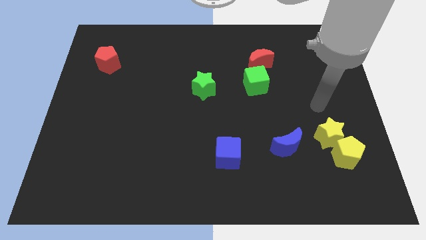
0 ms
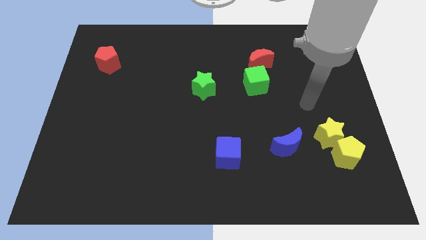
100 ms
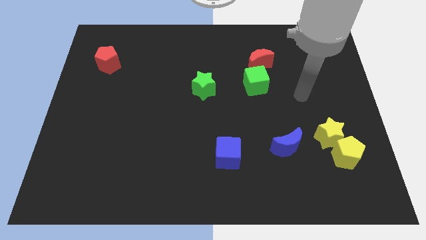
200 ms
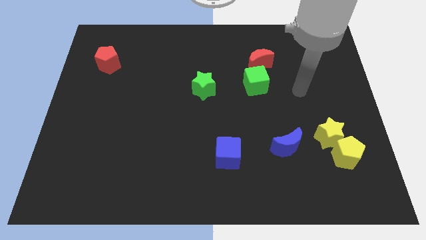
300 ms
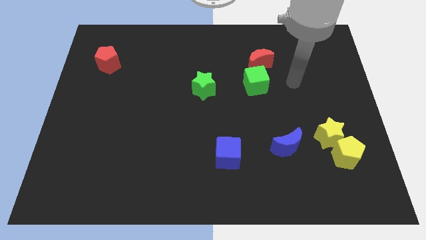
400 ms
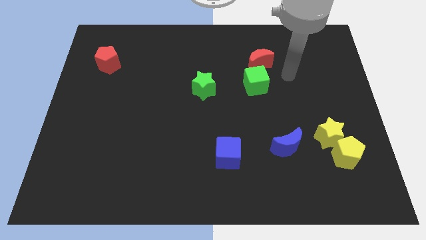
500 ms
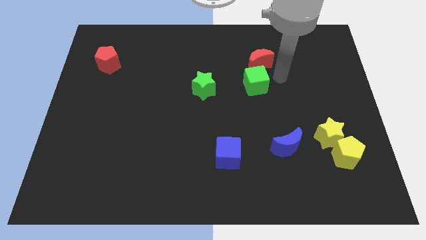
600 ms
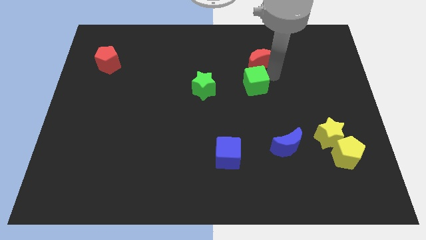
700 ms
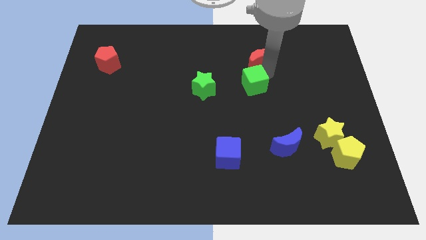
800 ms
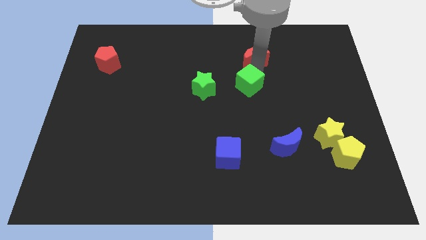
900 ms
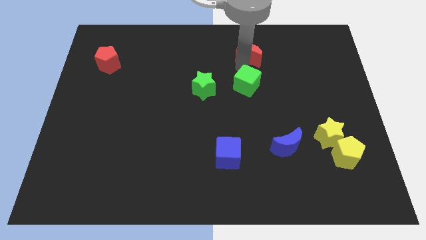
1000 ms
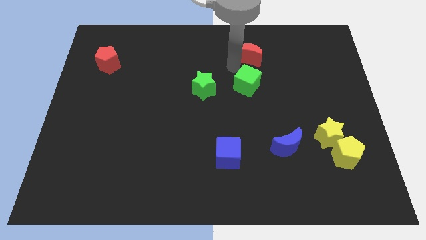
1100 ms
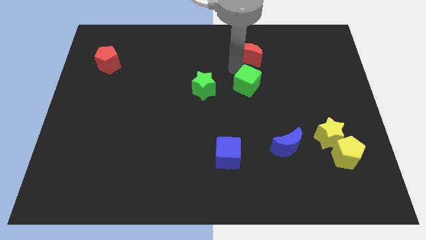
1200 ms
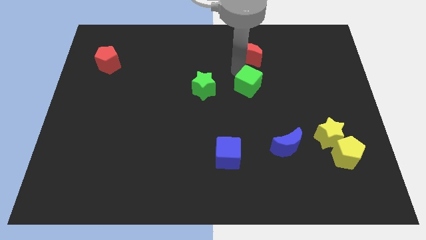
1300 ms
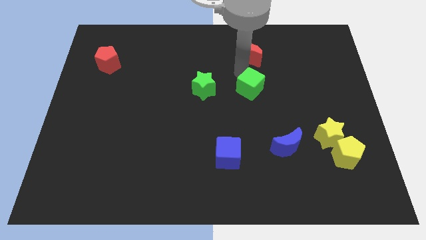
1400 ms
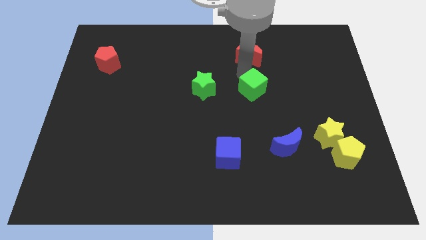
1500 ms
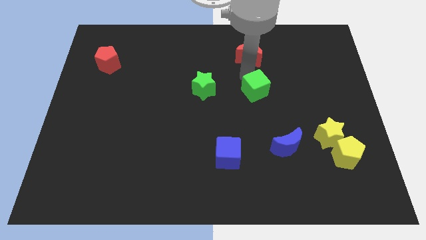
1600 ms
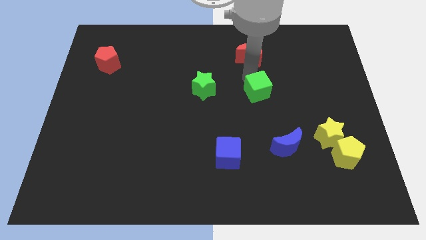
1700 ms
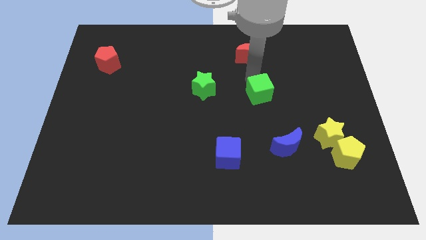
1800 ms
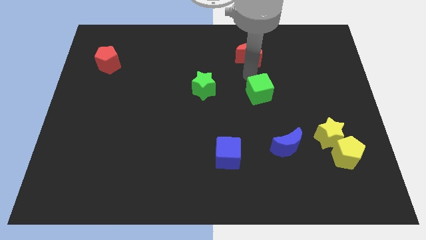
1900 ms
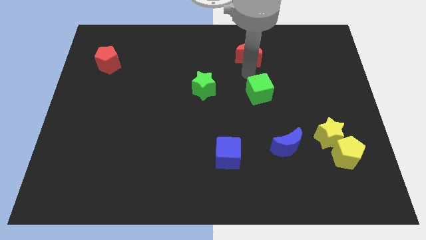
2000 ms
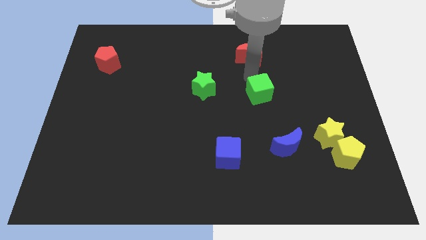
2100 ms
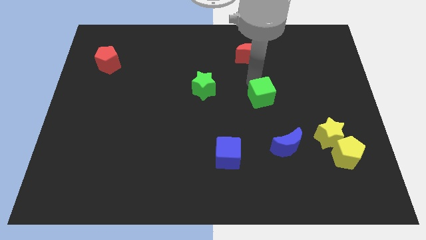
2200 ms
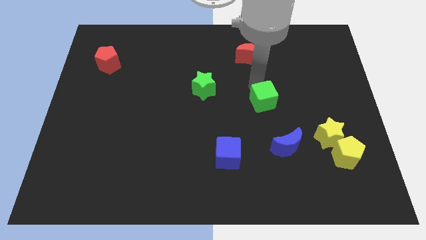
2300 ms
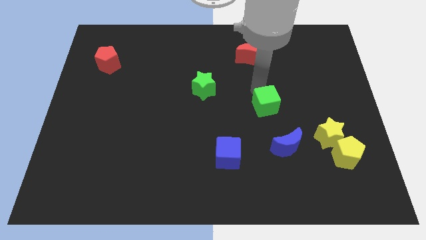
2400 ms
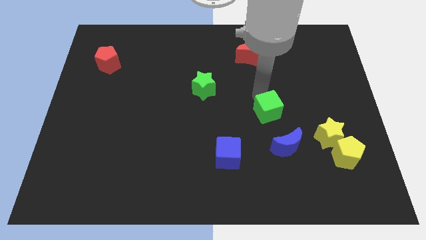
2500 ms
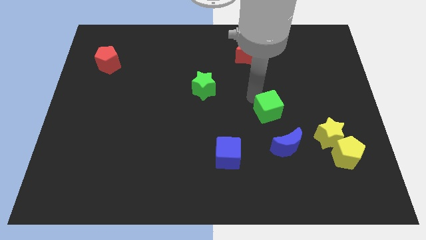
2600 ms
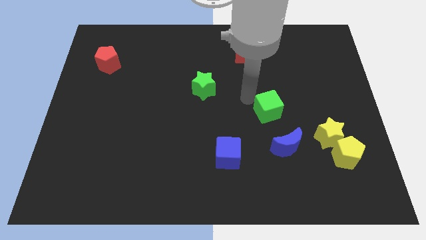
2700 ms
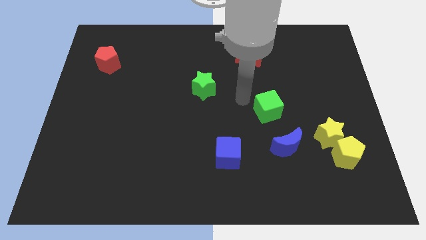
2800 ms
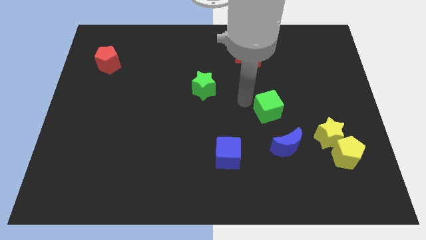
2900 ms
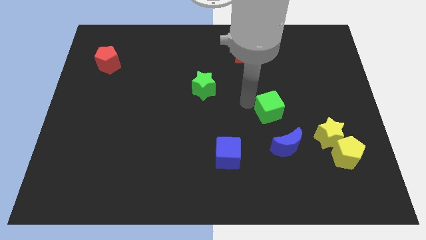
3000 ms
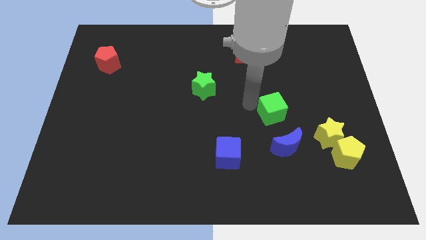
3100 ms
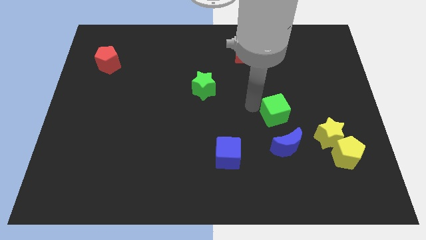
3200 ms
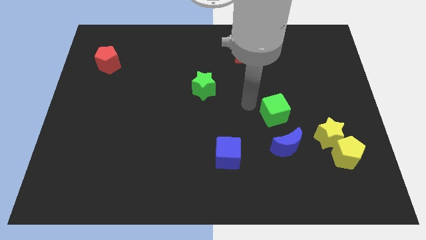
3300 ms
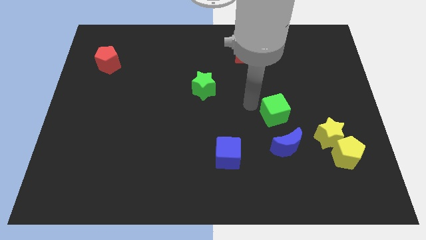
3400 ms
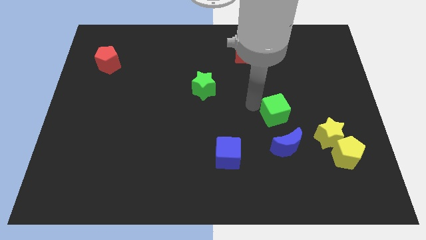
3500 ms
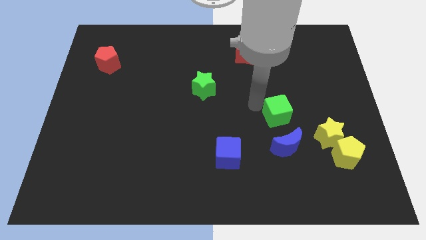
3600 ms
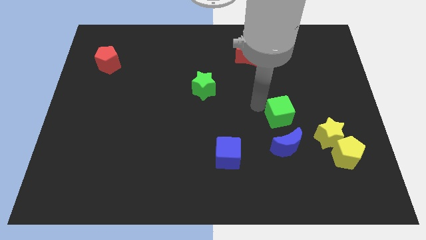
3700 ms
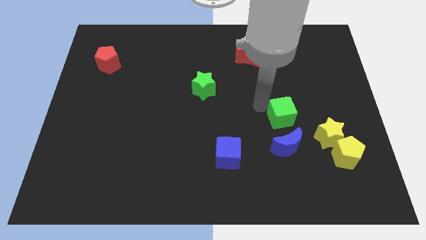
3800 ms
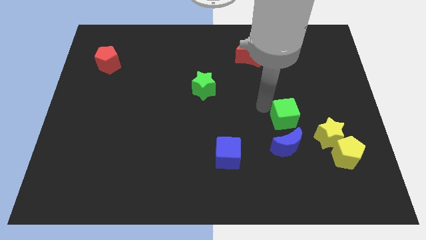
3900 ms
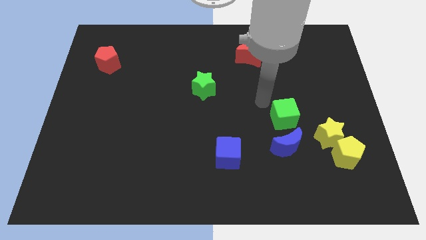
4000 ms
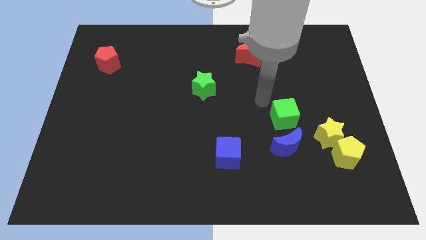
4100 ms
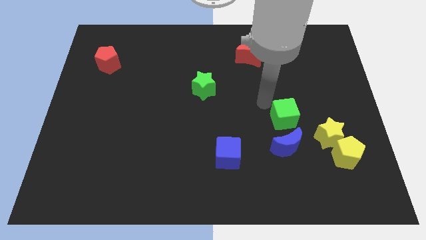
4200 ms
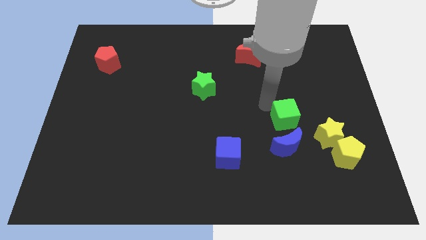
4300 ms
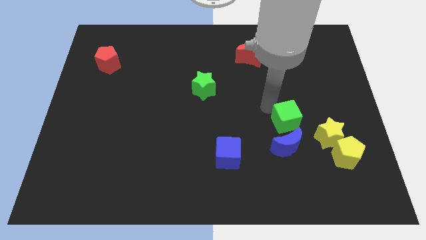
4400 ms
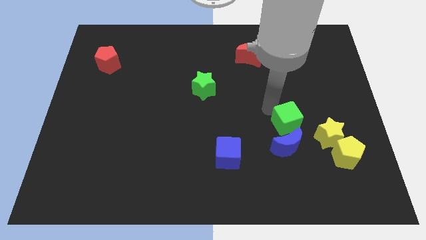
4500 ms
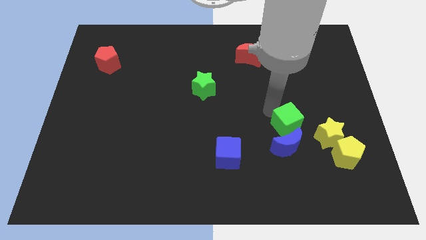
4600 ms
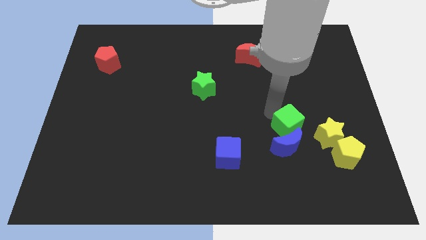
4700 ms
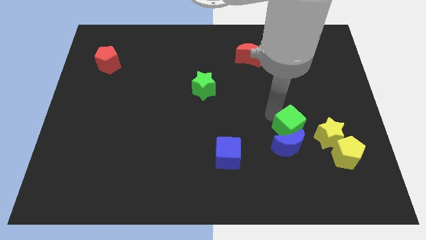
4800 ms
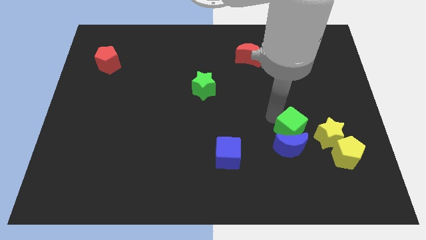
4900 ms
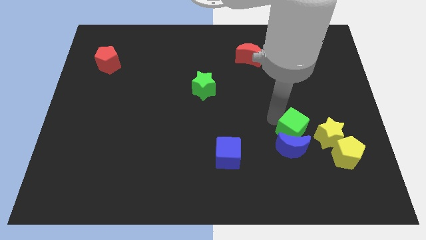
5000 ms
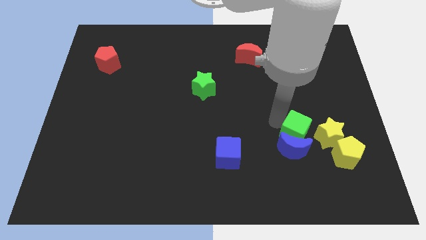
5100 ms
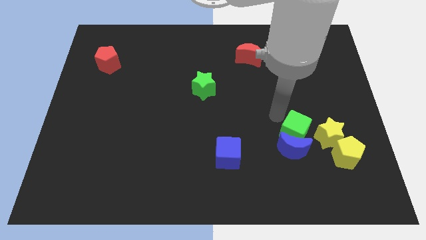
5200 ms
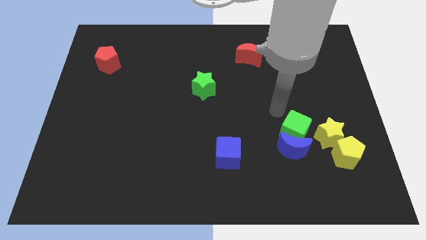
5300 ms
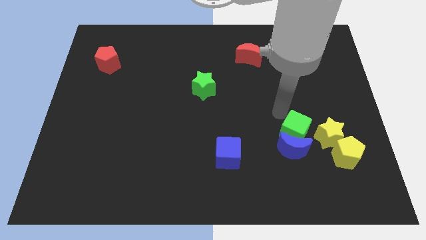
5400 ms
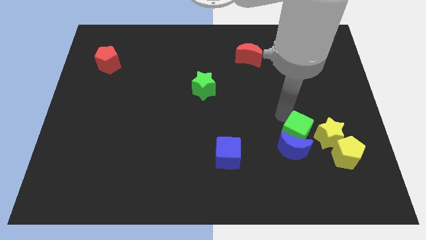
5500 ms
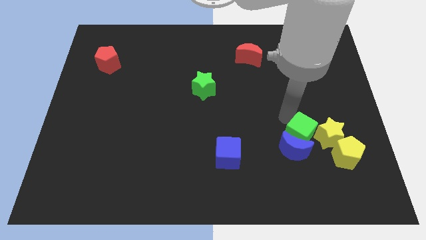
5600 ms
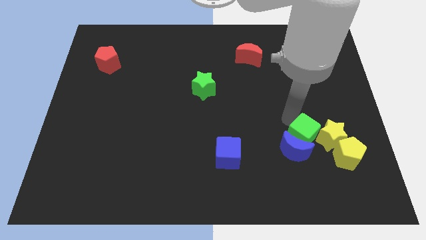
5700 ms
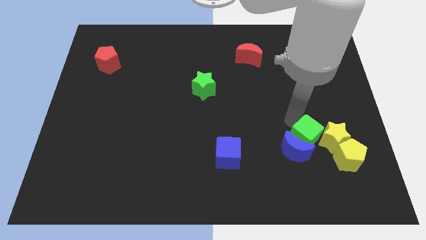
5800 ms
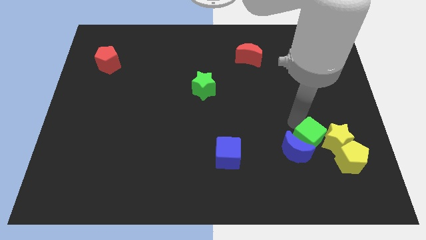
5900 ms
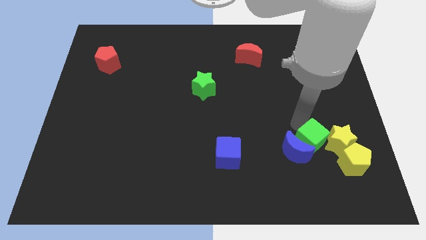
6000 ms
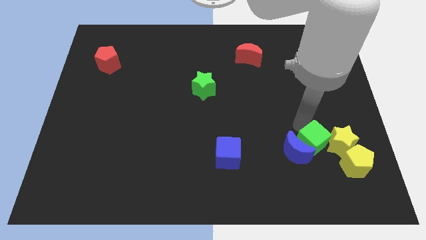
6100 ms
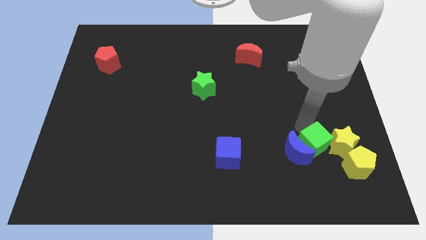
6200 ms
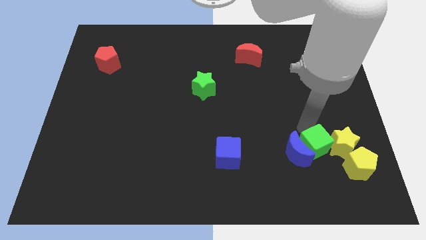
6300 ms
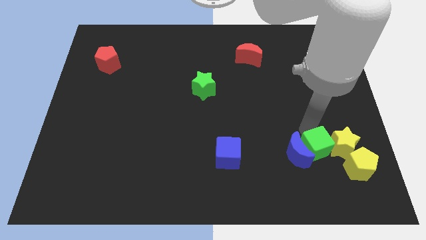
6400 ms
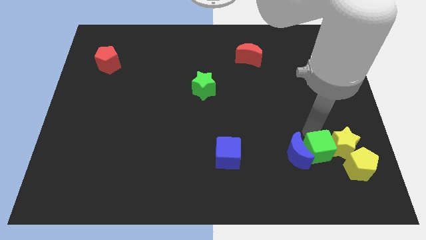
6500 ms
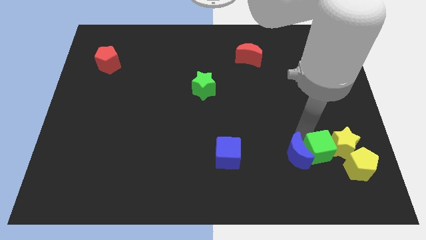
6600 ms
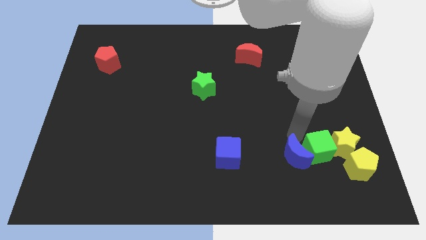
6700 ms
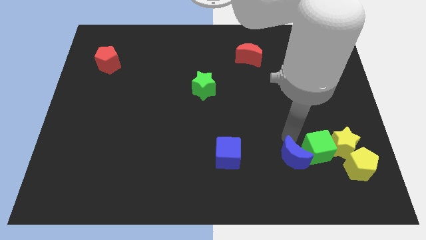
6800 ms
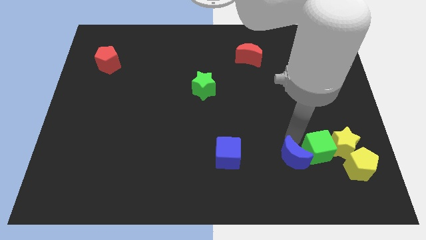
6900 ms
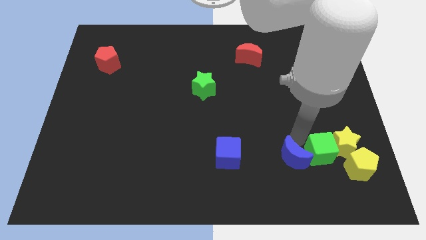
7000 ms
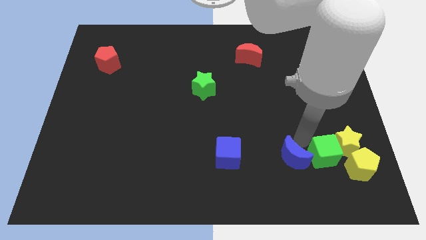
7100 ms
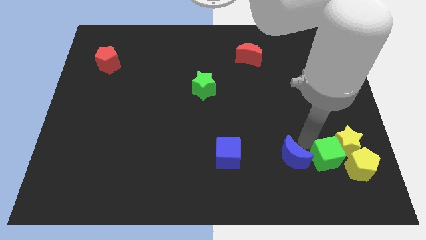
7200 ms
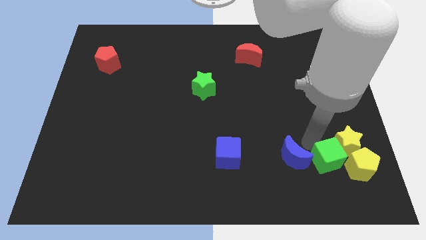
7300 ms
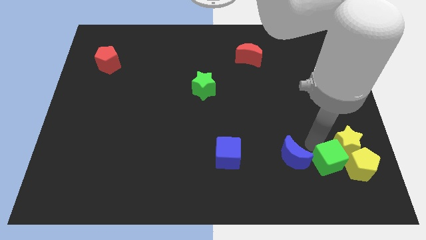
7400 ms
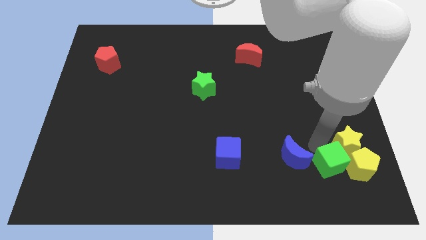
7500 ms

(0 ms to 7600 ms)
move the green cube towards the yellow pentagon

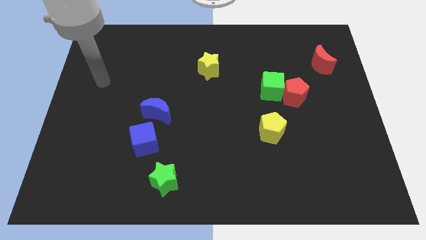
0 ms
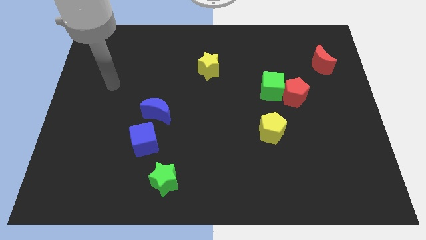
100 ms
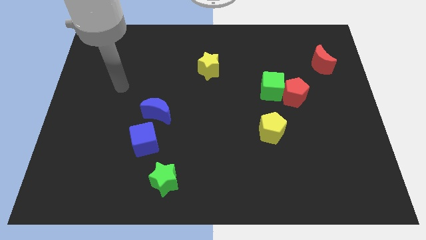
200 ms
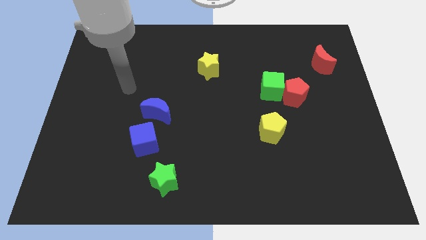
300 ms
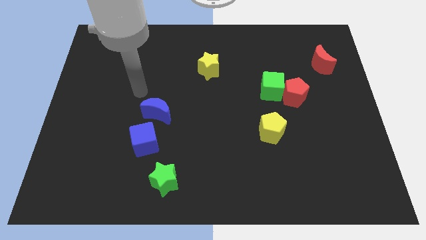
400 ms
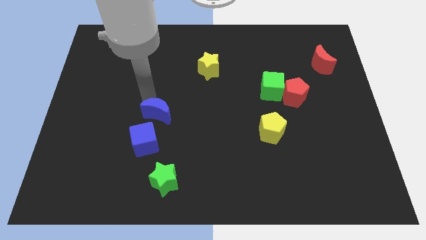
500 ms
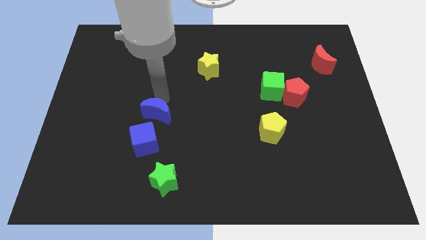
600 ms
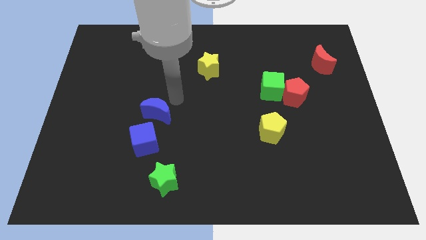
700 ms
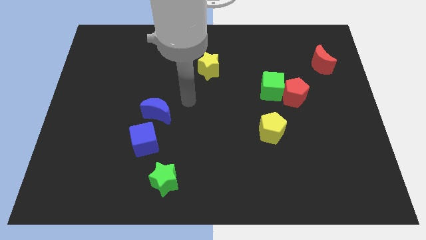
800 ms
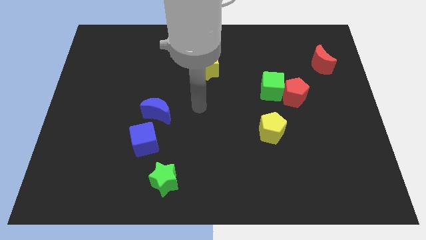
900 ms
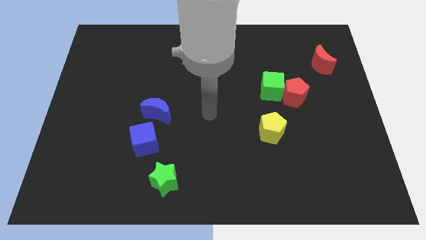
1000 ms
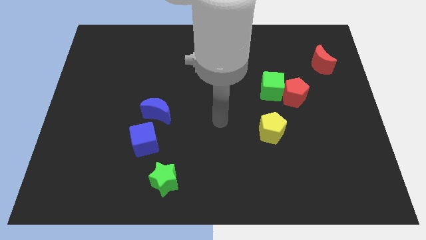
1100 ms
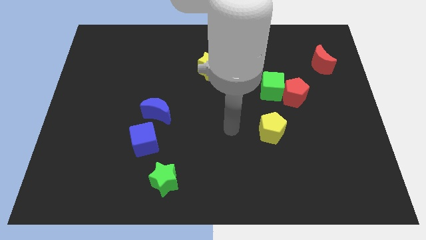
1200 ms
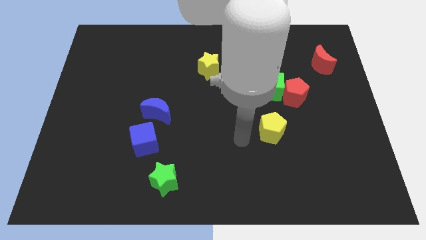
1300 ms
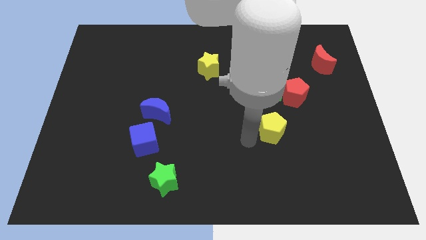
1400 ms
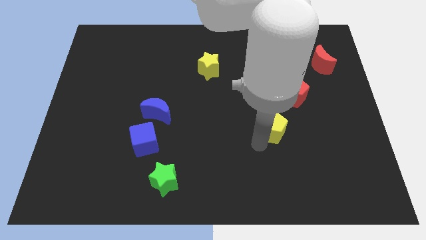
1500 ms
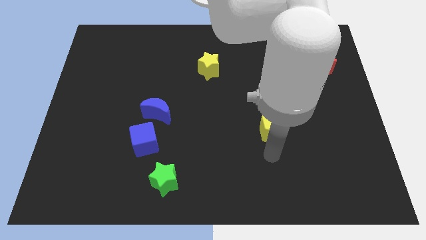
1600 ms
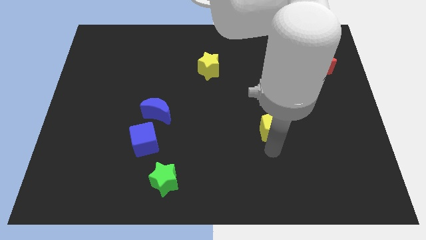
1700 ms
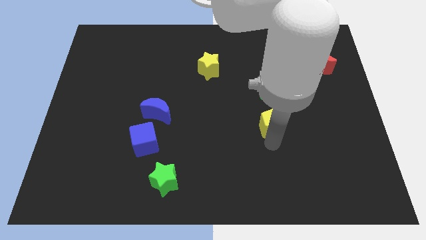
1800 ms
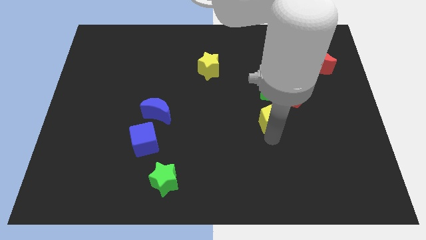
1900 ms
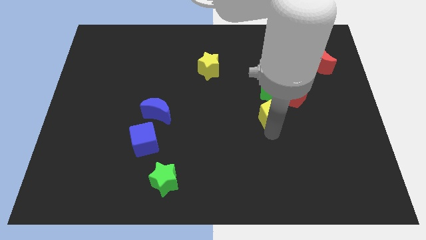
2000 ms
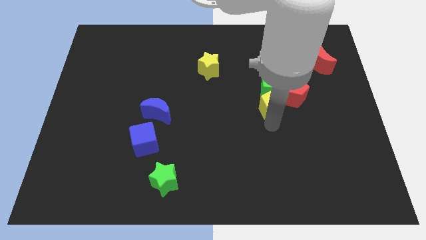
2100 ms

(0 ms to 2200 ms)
move the yellow pentagon towards the green cube
